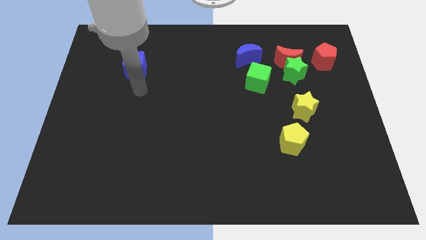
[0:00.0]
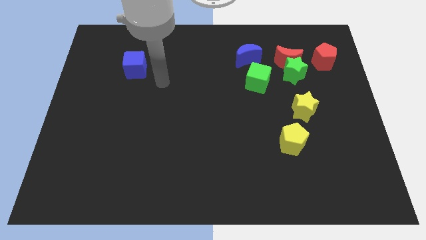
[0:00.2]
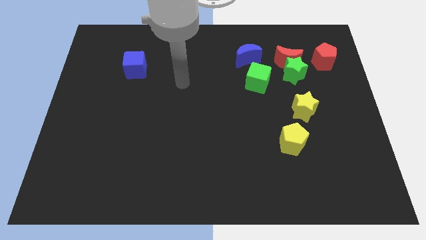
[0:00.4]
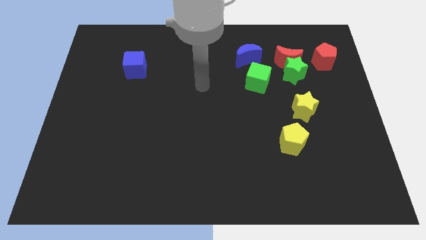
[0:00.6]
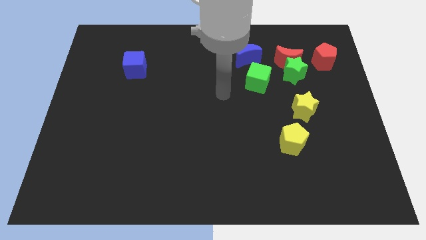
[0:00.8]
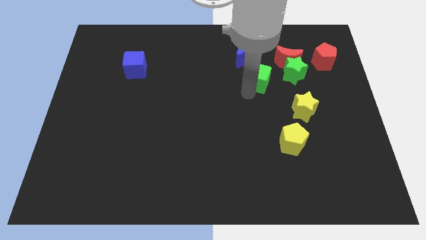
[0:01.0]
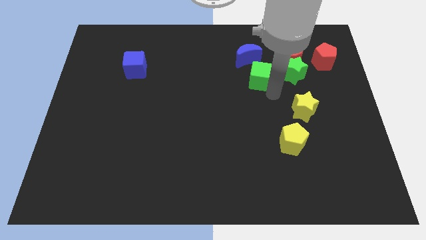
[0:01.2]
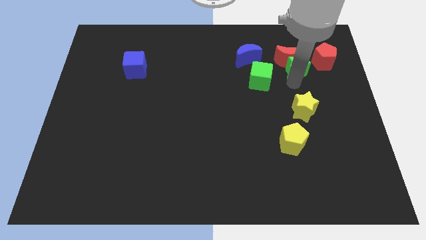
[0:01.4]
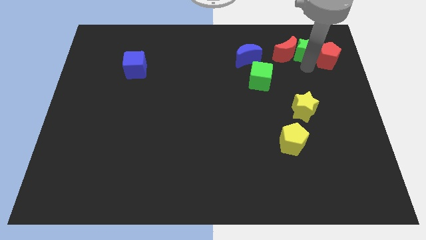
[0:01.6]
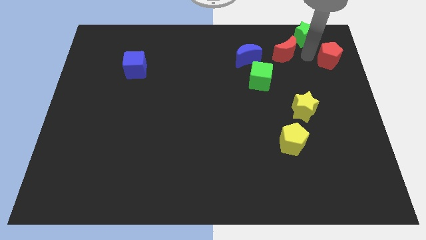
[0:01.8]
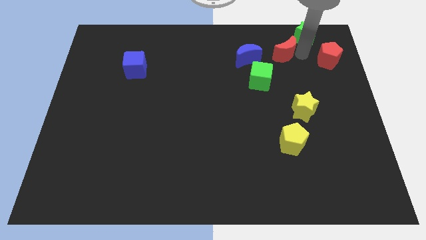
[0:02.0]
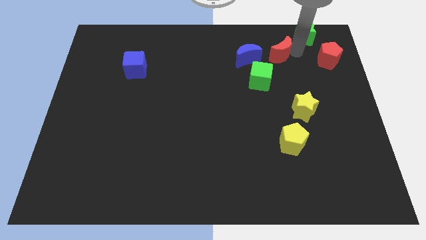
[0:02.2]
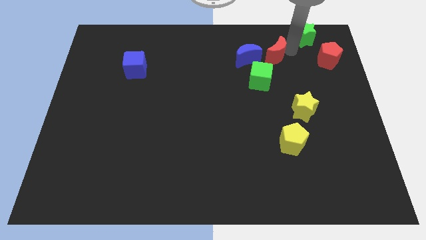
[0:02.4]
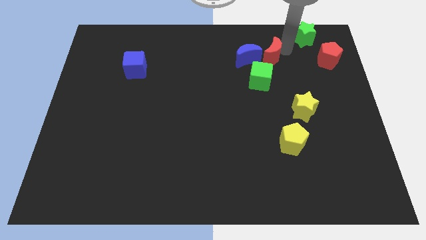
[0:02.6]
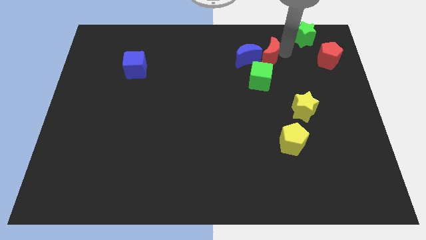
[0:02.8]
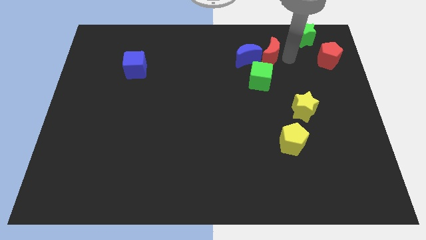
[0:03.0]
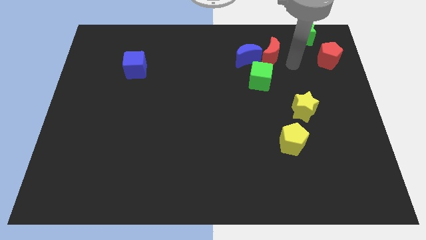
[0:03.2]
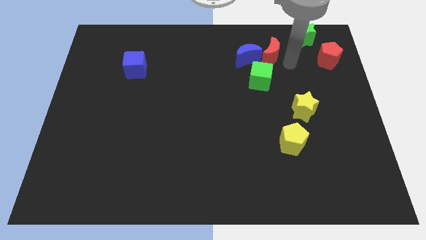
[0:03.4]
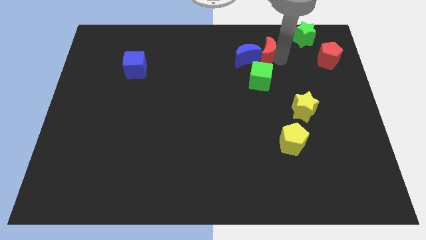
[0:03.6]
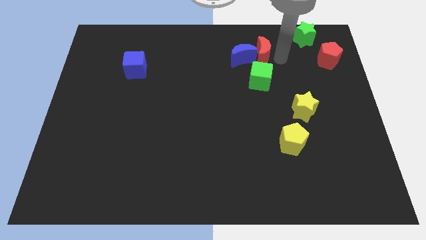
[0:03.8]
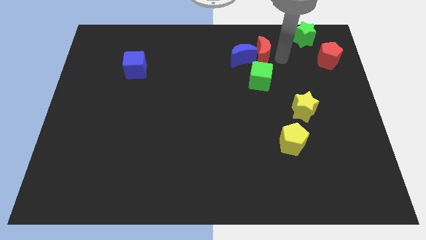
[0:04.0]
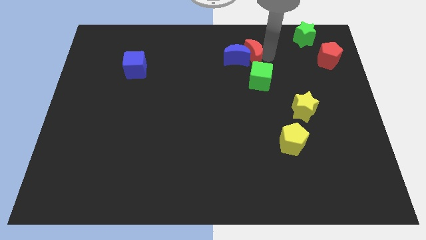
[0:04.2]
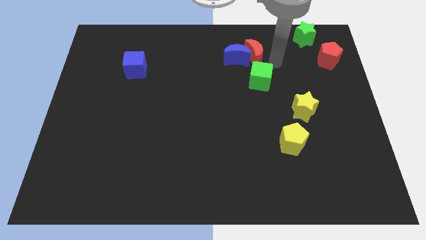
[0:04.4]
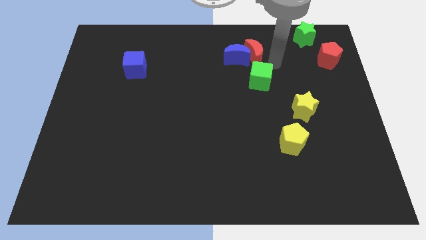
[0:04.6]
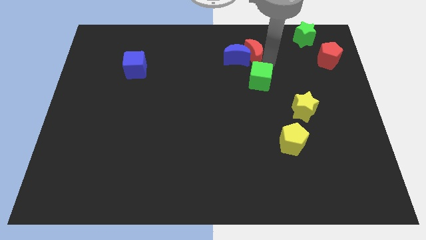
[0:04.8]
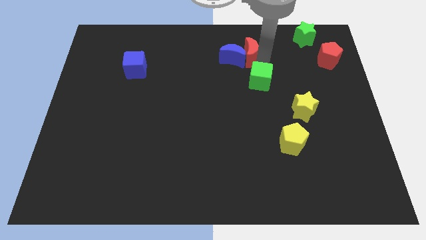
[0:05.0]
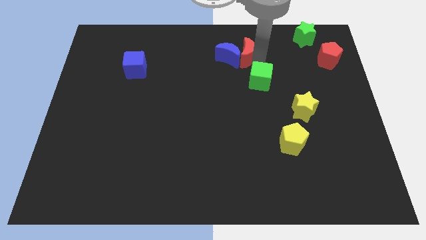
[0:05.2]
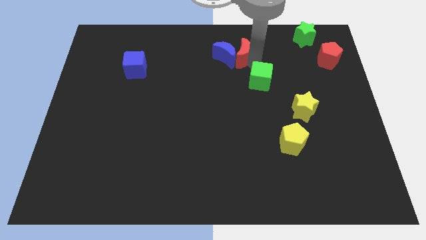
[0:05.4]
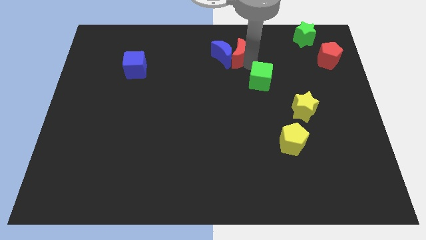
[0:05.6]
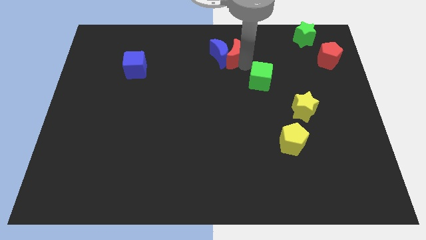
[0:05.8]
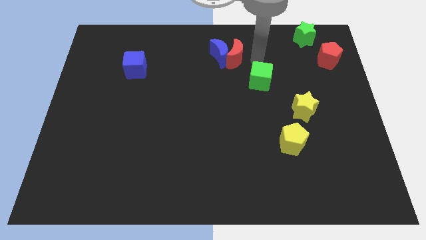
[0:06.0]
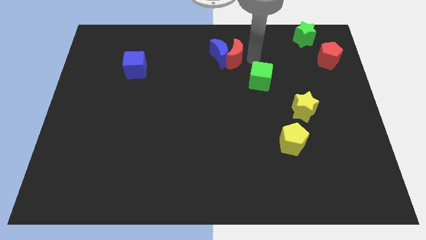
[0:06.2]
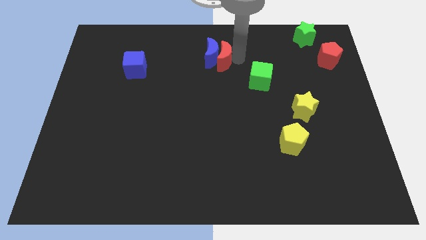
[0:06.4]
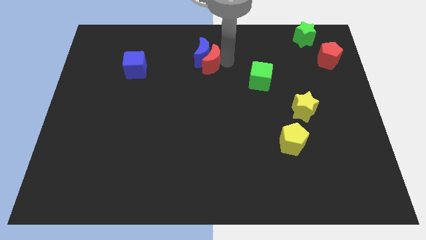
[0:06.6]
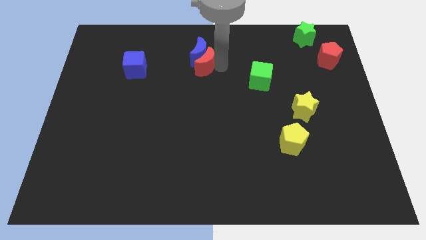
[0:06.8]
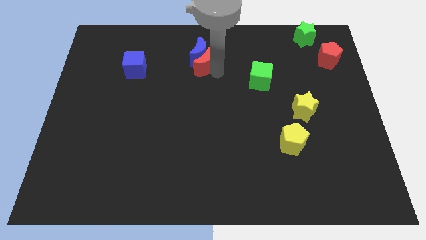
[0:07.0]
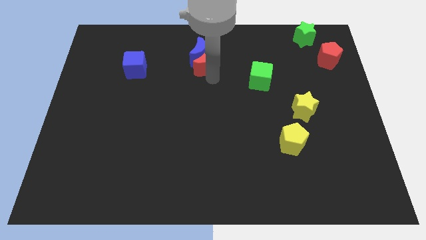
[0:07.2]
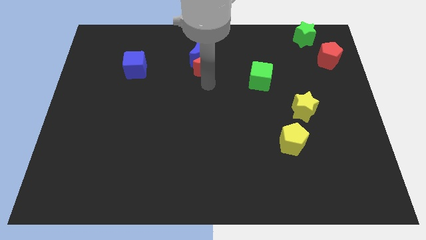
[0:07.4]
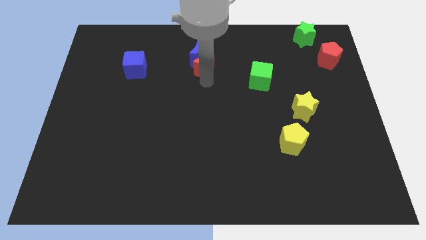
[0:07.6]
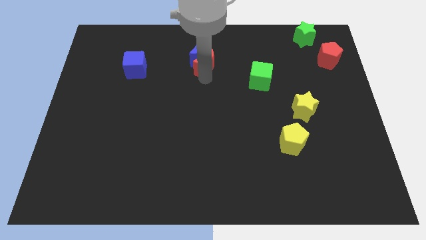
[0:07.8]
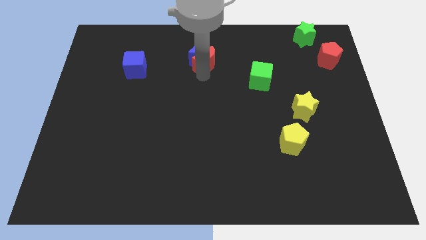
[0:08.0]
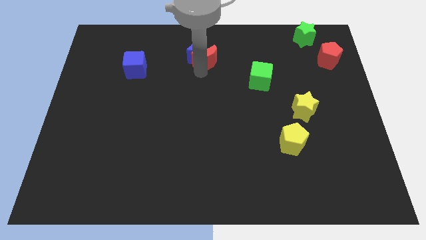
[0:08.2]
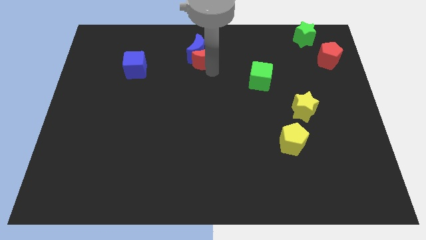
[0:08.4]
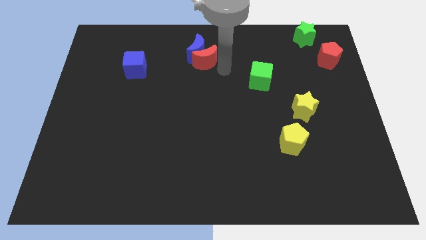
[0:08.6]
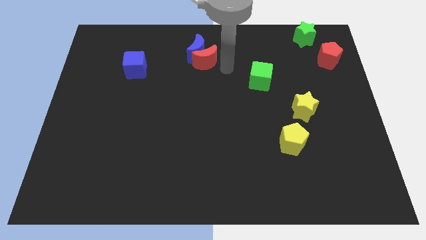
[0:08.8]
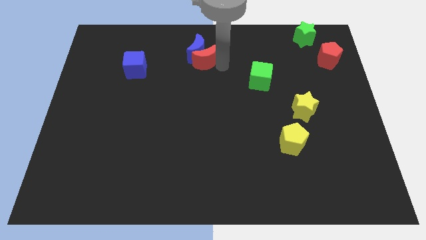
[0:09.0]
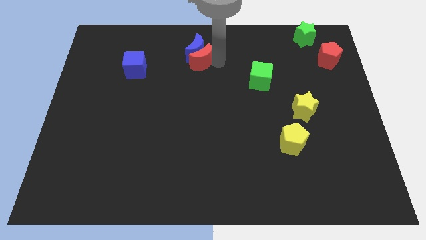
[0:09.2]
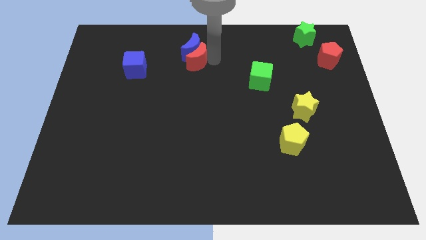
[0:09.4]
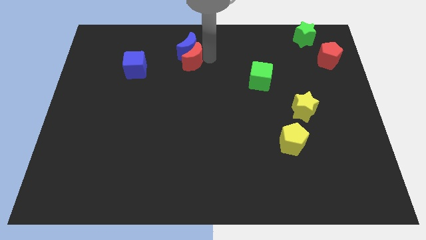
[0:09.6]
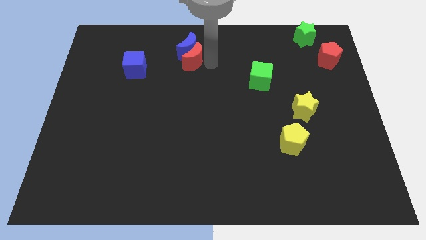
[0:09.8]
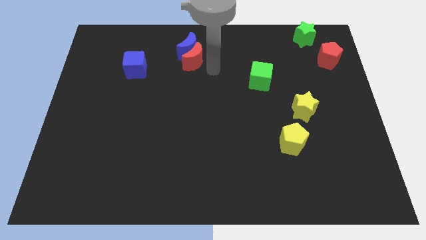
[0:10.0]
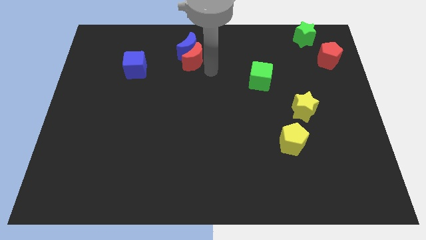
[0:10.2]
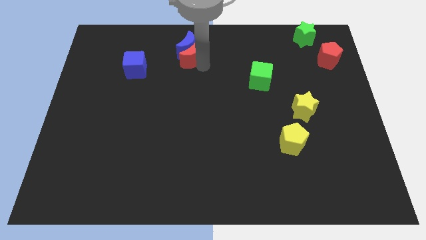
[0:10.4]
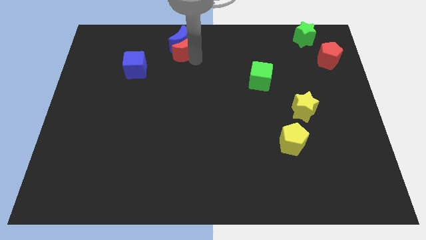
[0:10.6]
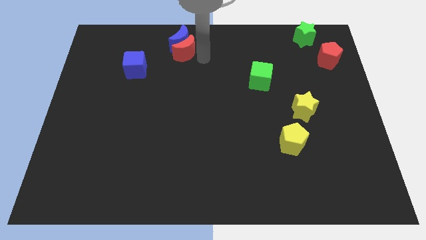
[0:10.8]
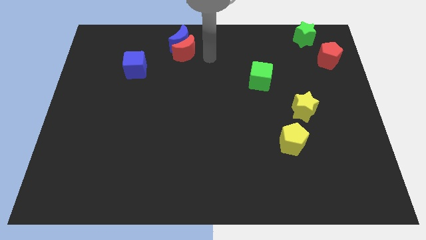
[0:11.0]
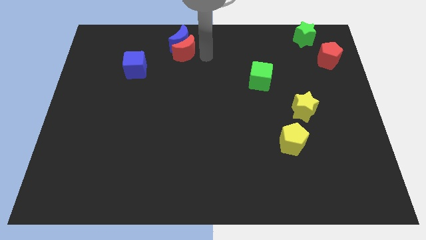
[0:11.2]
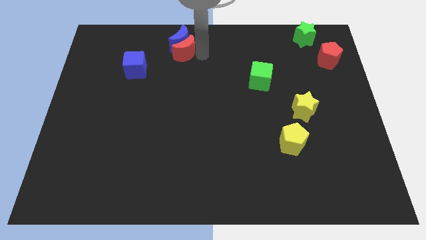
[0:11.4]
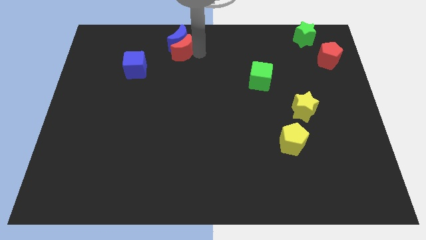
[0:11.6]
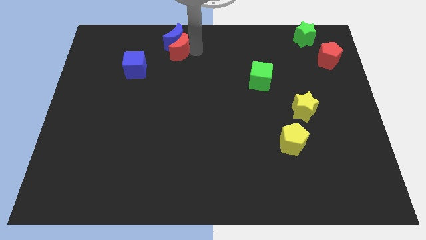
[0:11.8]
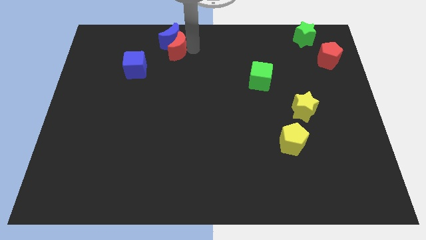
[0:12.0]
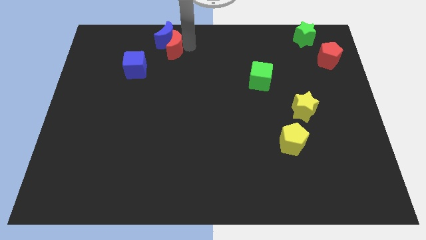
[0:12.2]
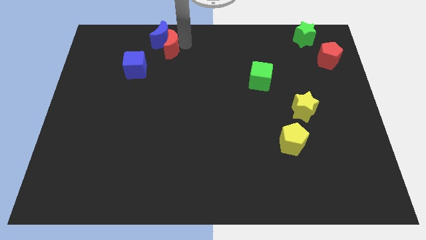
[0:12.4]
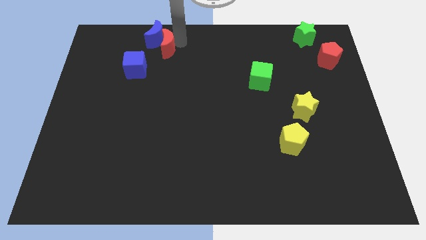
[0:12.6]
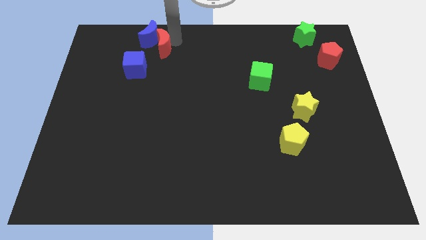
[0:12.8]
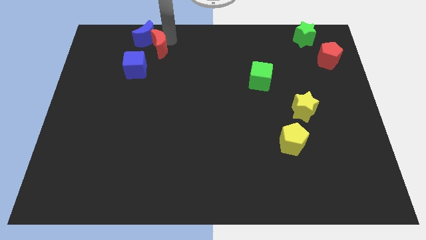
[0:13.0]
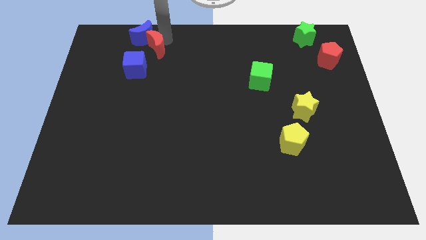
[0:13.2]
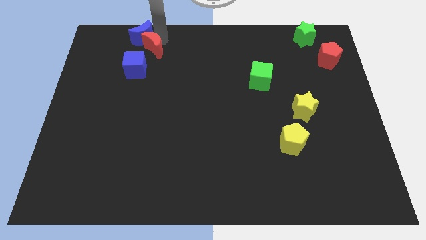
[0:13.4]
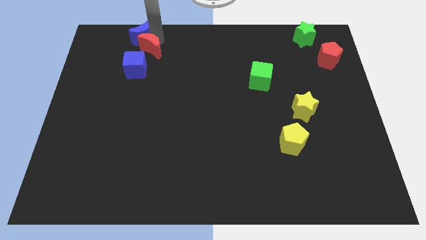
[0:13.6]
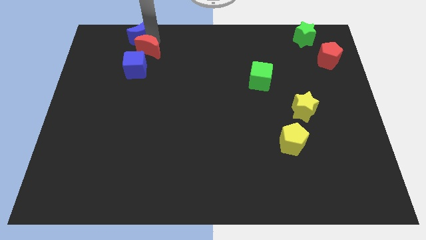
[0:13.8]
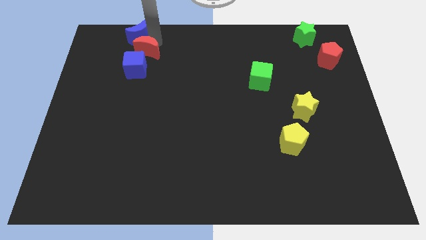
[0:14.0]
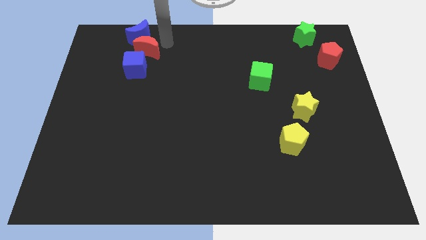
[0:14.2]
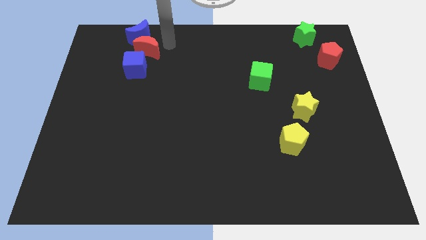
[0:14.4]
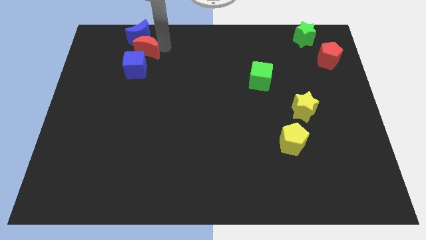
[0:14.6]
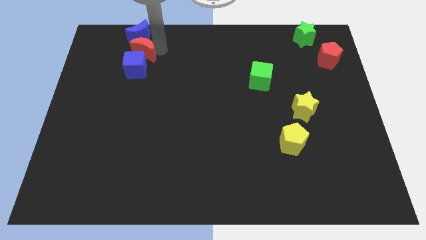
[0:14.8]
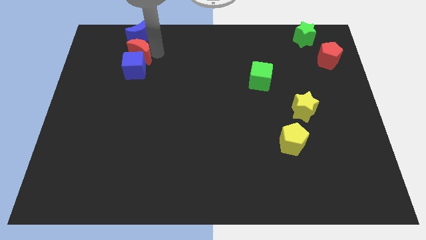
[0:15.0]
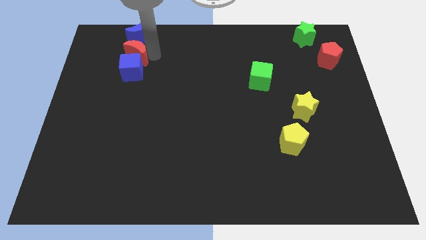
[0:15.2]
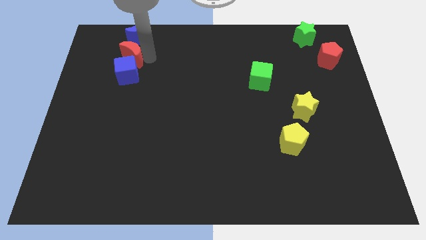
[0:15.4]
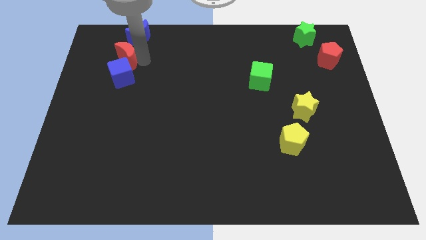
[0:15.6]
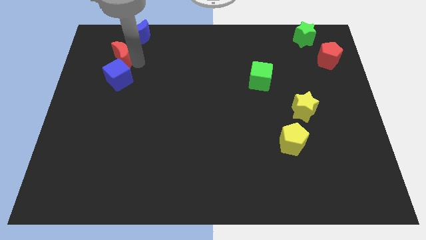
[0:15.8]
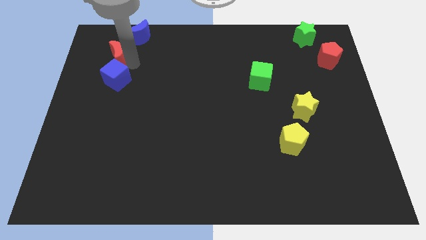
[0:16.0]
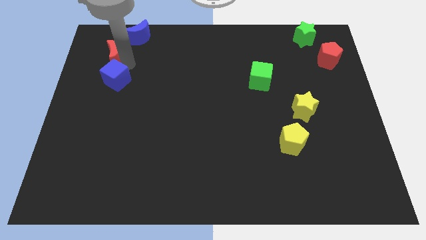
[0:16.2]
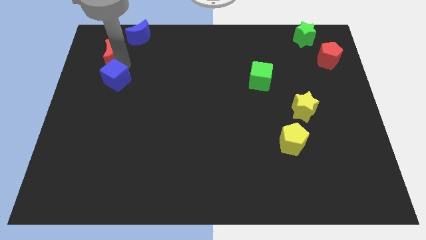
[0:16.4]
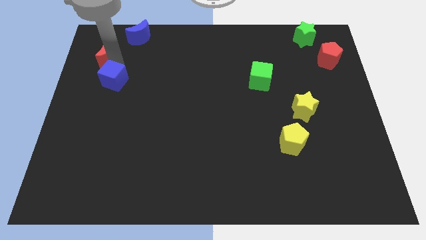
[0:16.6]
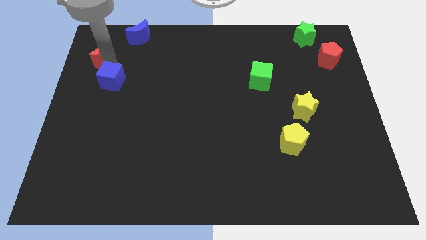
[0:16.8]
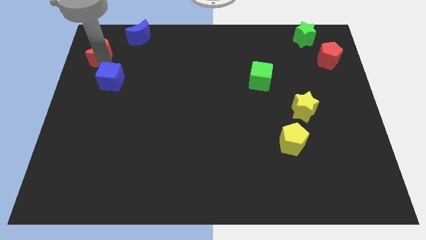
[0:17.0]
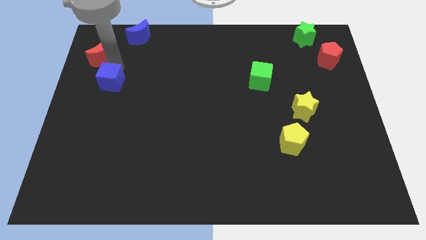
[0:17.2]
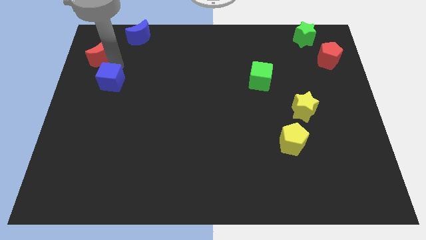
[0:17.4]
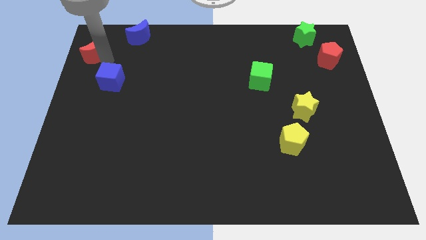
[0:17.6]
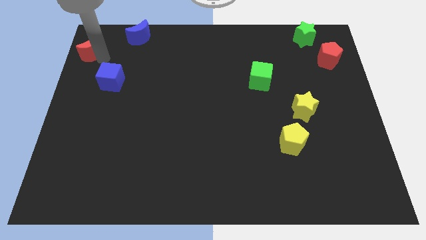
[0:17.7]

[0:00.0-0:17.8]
slide the red moon to the top left corner
